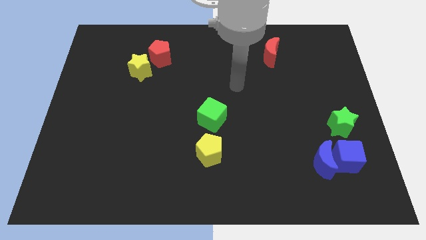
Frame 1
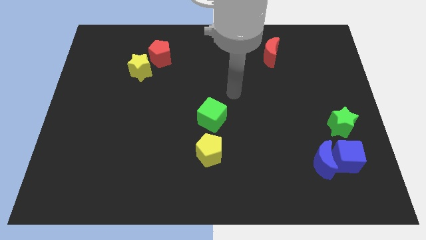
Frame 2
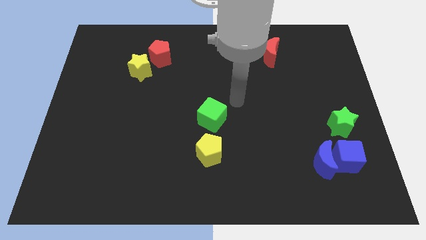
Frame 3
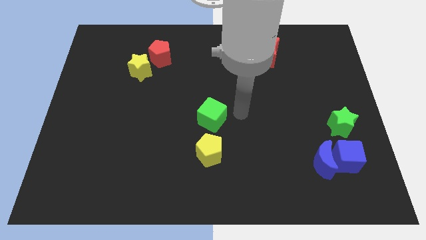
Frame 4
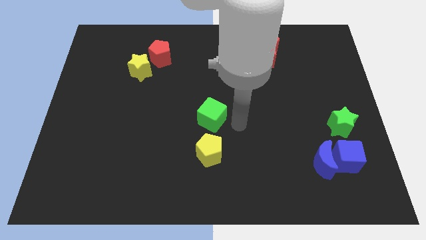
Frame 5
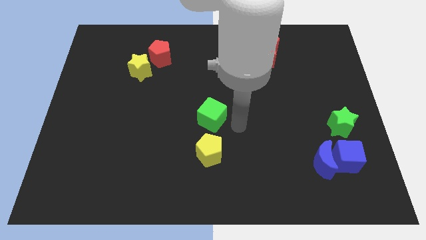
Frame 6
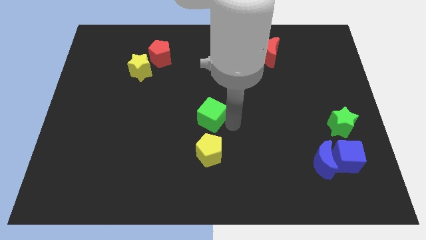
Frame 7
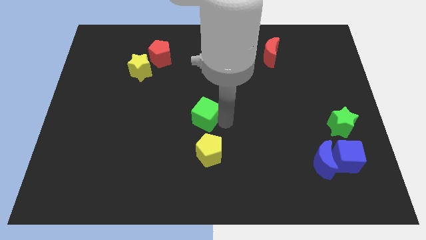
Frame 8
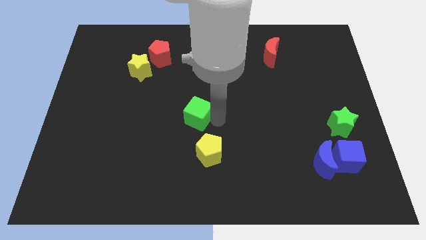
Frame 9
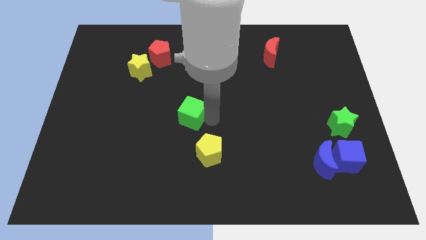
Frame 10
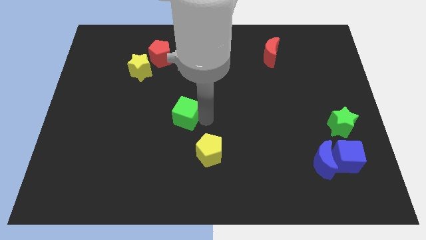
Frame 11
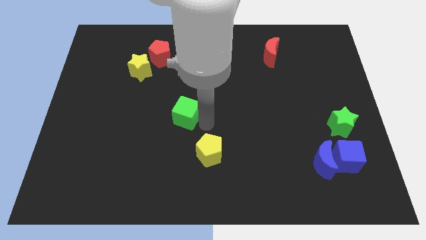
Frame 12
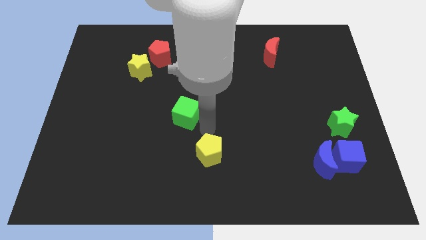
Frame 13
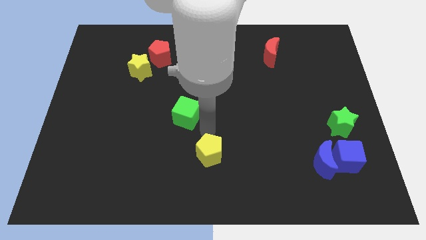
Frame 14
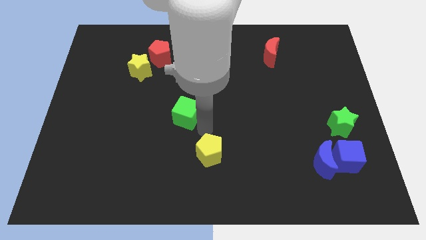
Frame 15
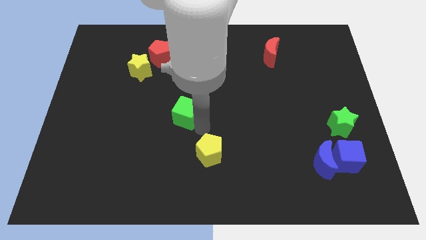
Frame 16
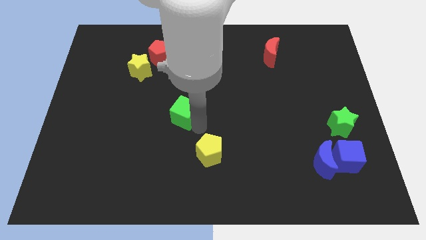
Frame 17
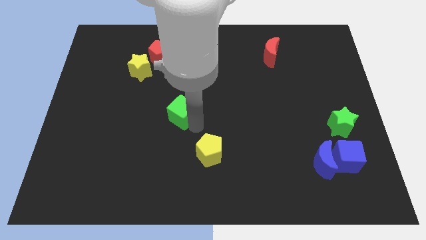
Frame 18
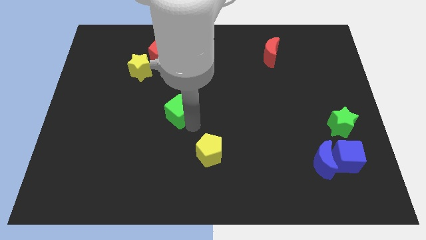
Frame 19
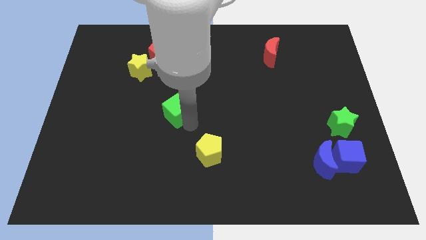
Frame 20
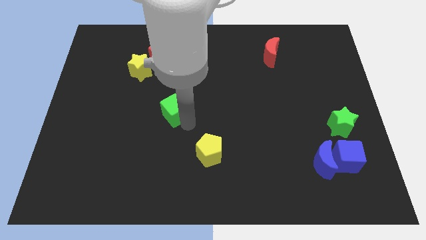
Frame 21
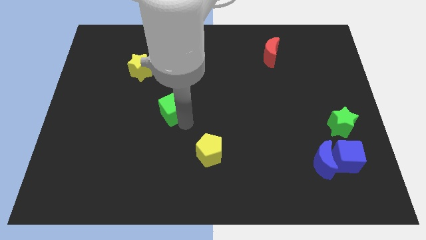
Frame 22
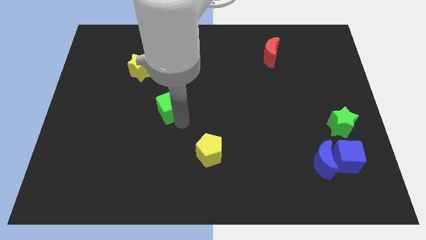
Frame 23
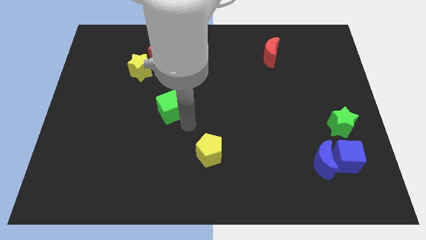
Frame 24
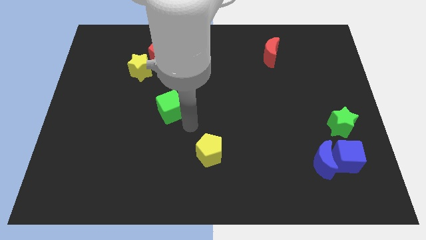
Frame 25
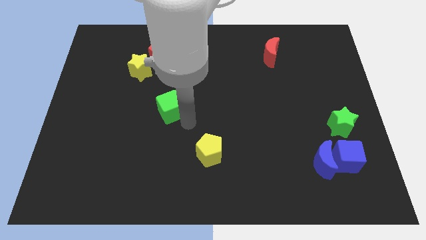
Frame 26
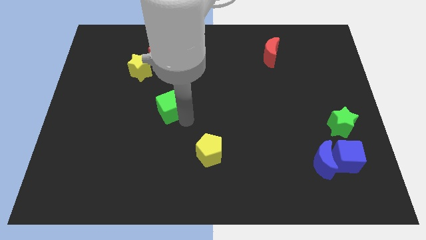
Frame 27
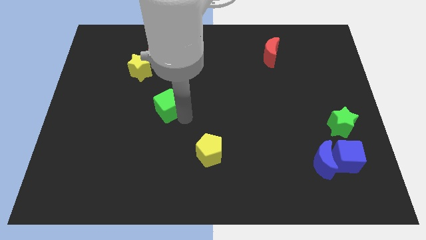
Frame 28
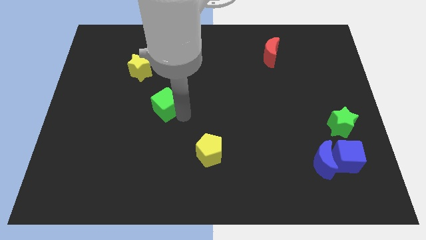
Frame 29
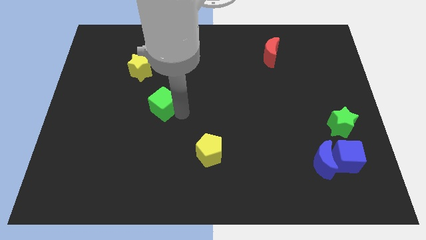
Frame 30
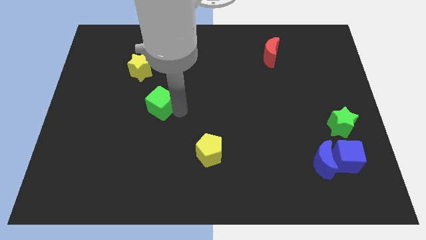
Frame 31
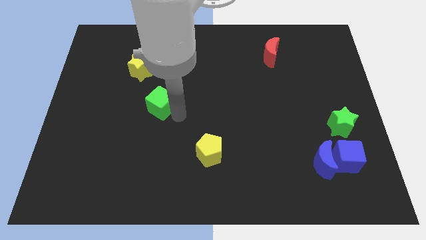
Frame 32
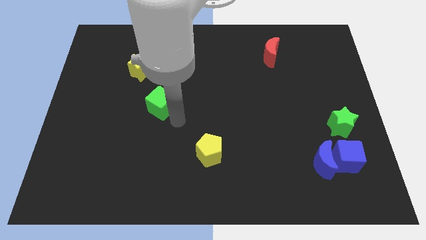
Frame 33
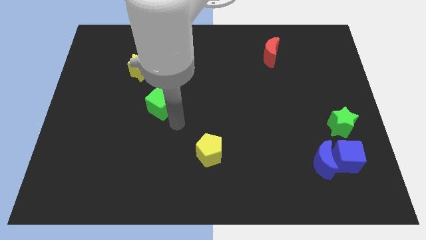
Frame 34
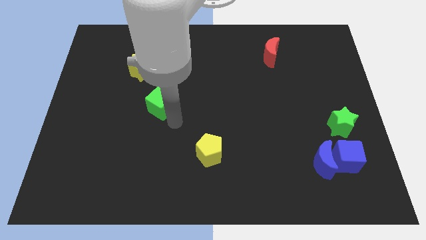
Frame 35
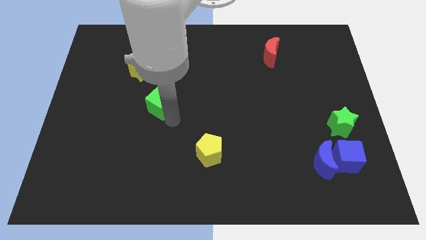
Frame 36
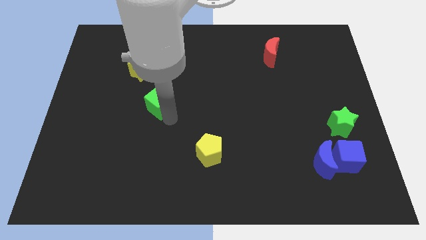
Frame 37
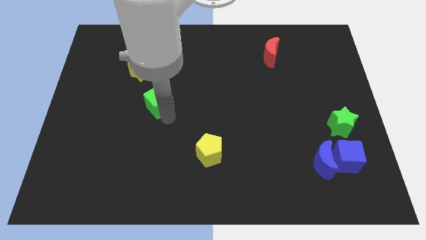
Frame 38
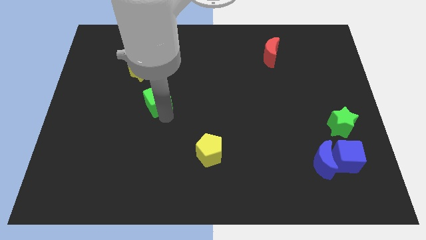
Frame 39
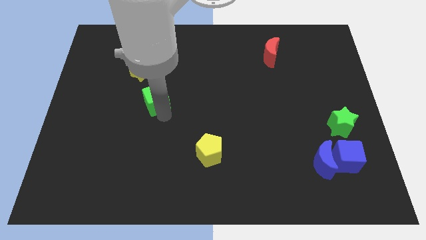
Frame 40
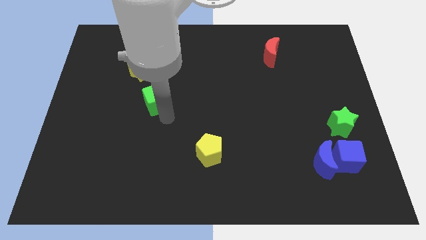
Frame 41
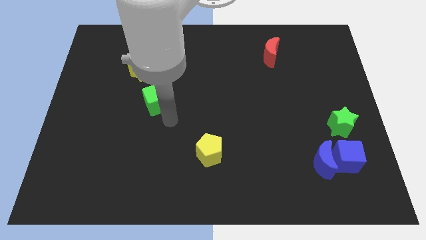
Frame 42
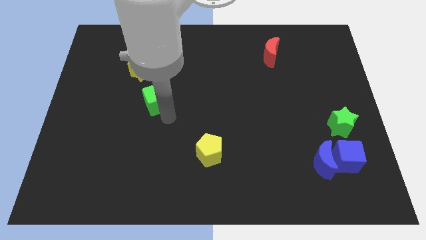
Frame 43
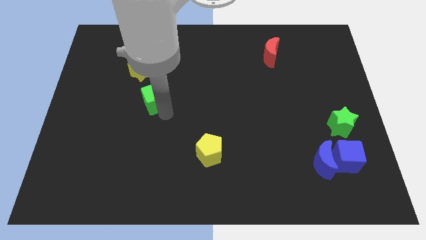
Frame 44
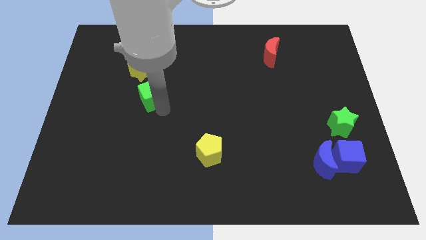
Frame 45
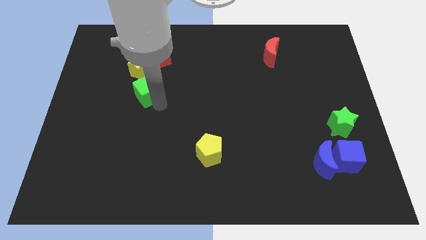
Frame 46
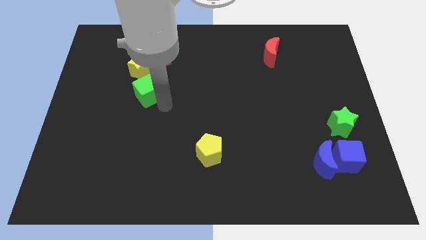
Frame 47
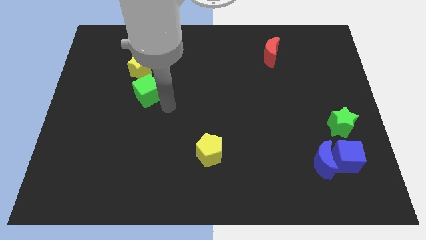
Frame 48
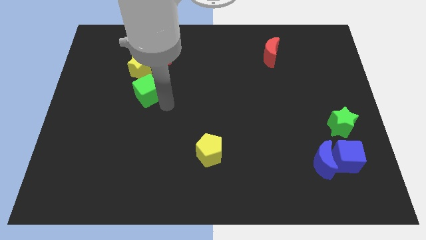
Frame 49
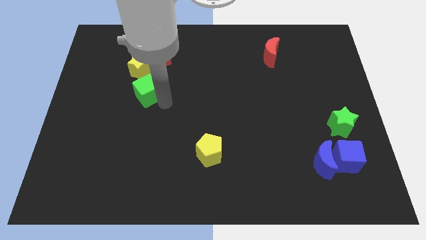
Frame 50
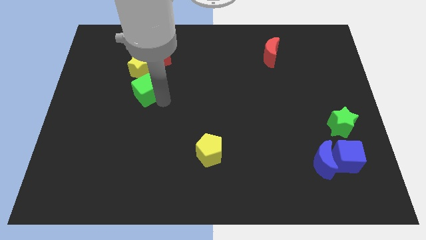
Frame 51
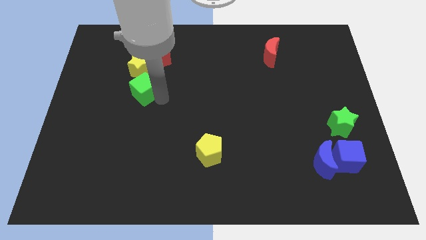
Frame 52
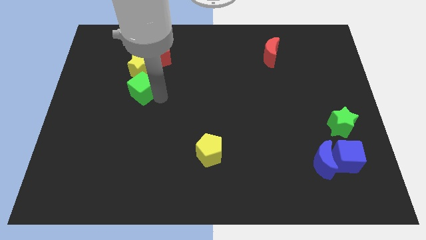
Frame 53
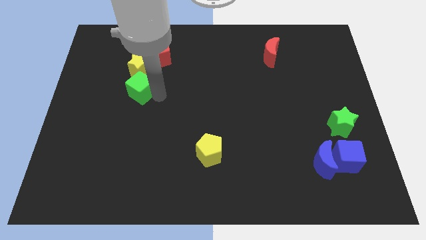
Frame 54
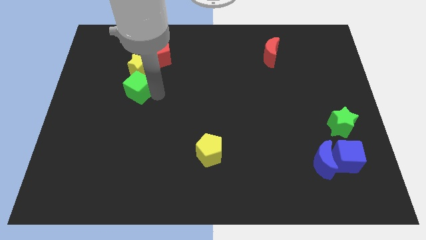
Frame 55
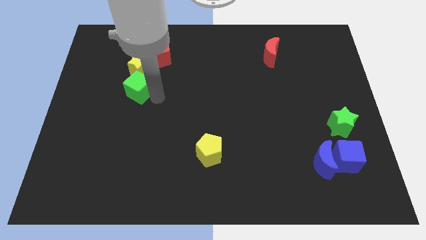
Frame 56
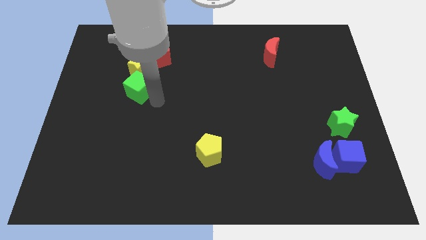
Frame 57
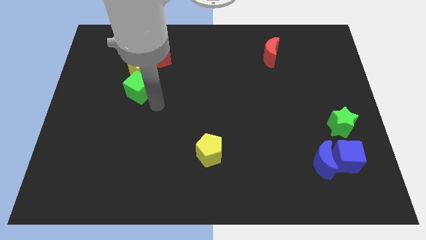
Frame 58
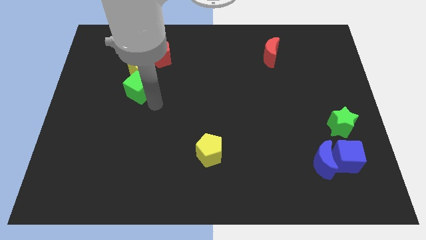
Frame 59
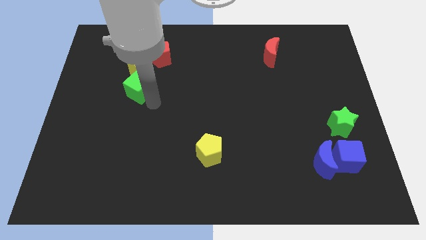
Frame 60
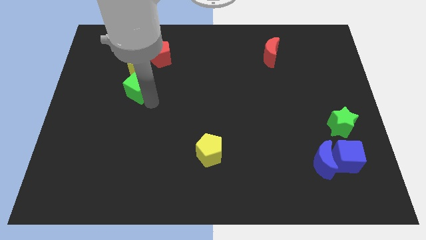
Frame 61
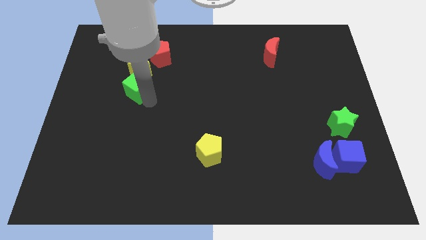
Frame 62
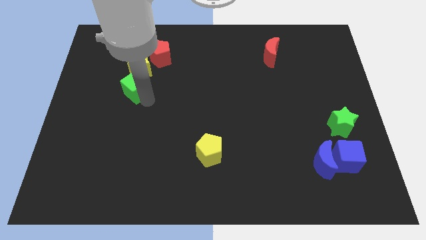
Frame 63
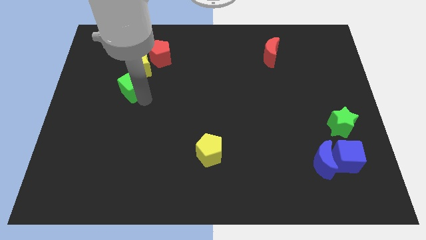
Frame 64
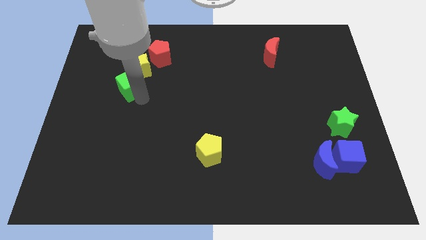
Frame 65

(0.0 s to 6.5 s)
move the green cube to the bottom left of the red pentagon

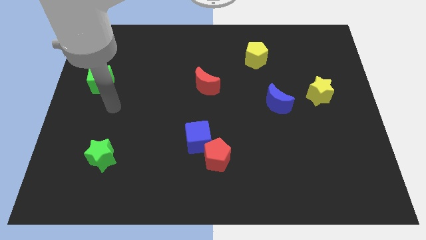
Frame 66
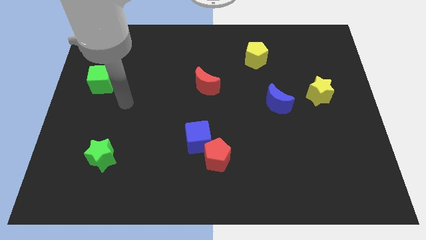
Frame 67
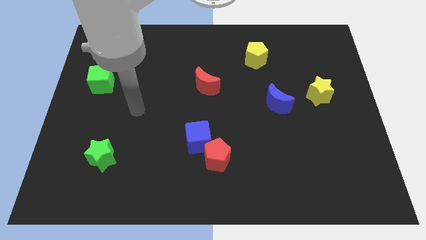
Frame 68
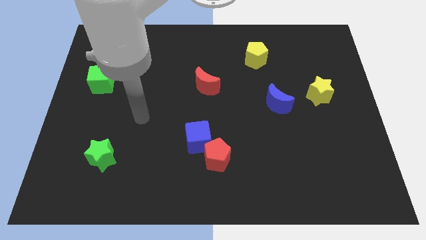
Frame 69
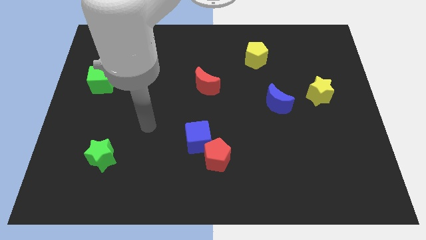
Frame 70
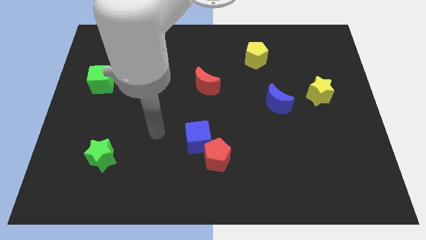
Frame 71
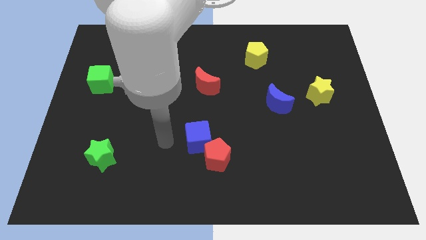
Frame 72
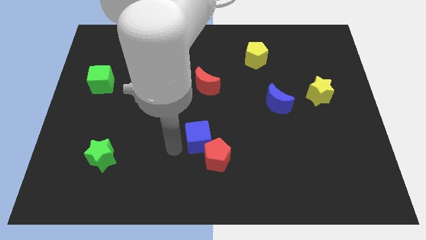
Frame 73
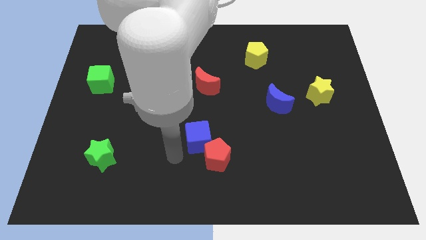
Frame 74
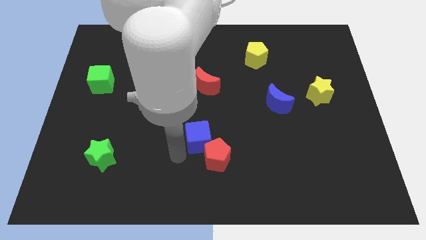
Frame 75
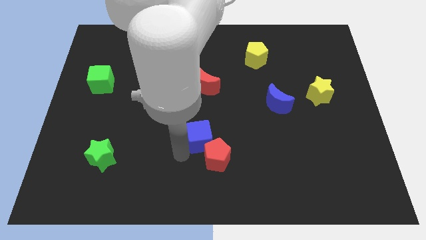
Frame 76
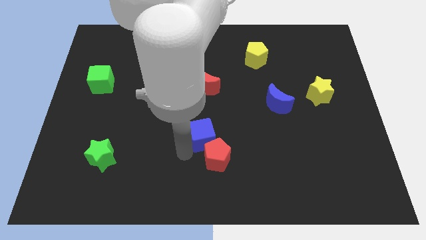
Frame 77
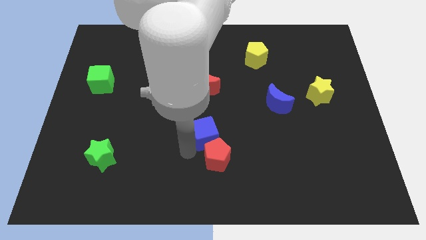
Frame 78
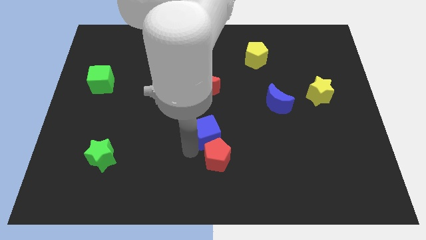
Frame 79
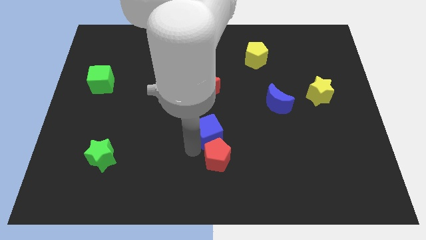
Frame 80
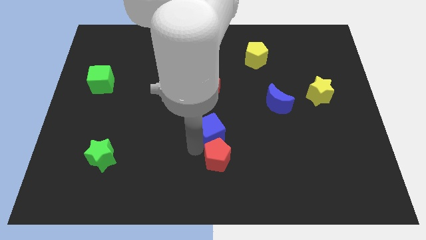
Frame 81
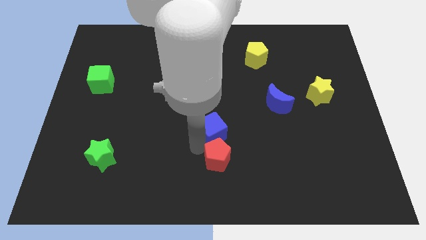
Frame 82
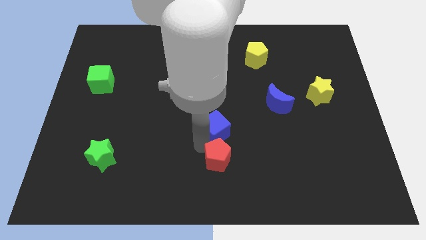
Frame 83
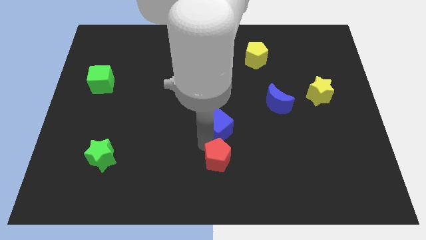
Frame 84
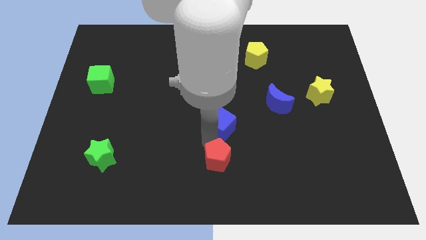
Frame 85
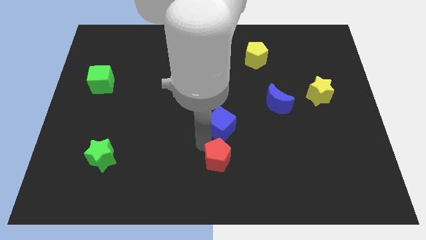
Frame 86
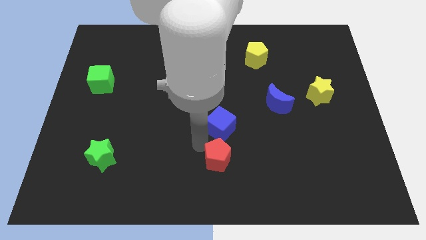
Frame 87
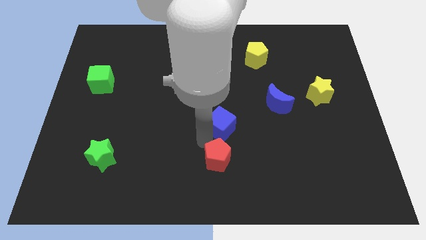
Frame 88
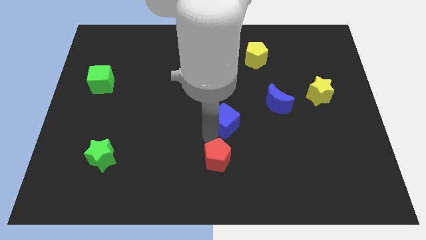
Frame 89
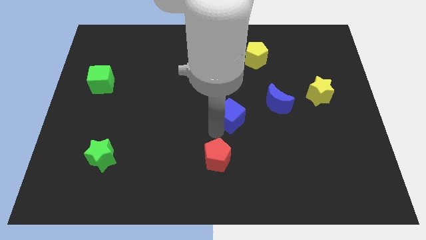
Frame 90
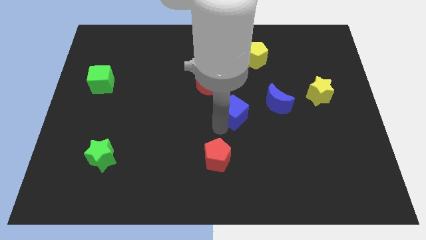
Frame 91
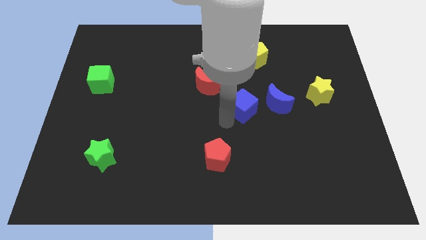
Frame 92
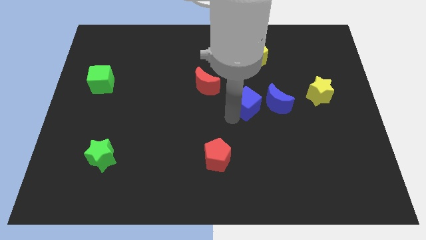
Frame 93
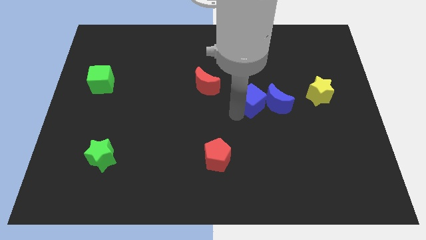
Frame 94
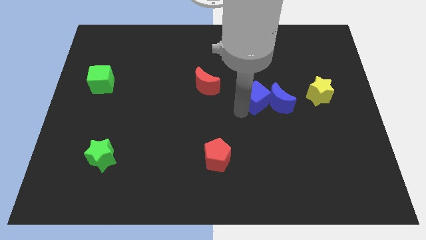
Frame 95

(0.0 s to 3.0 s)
push the blue cube to the left side of the yellow star
